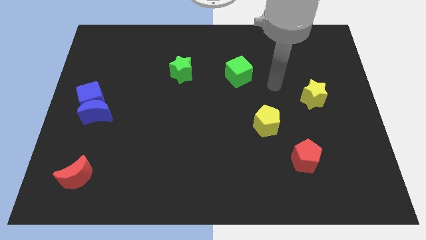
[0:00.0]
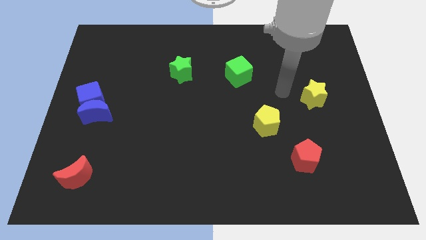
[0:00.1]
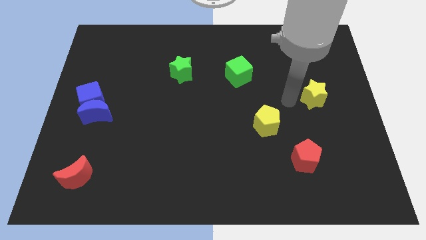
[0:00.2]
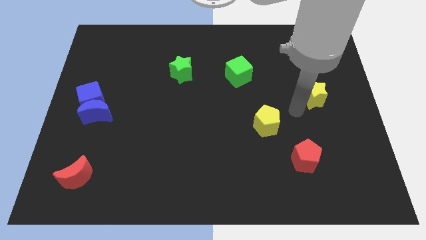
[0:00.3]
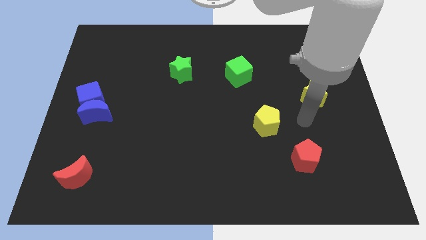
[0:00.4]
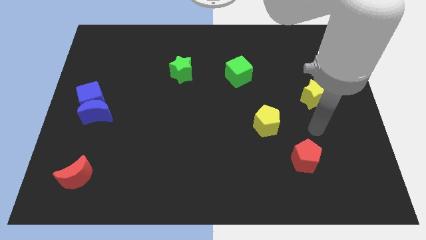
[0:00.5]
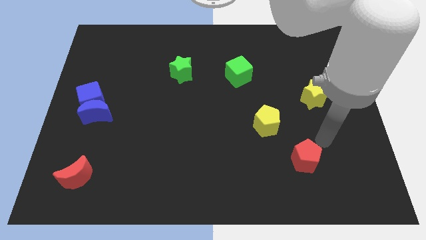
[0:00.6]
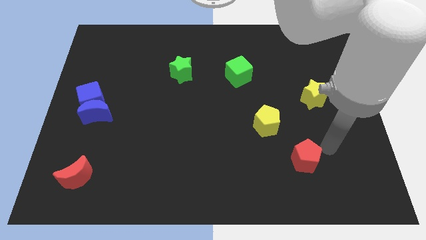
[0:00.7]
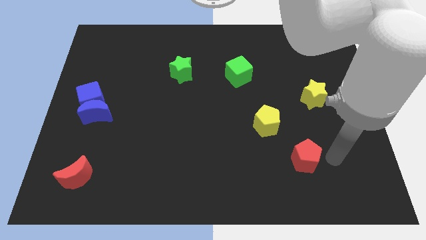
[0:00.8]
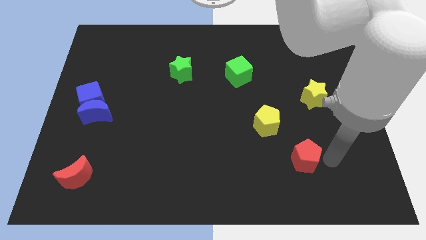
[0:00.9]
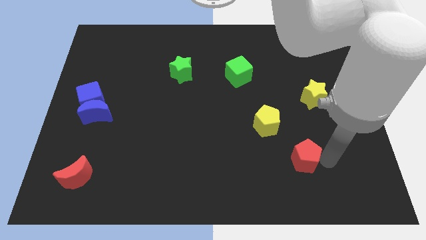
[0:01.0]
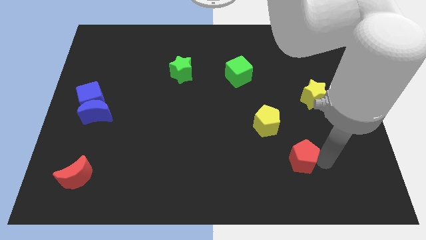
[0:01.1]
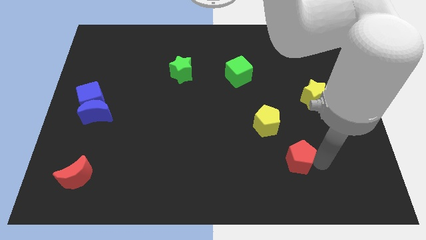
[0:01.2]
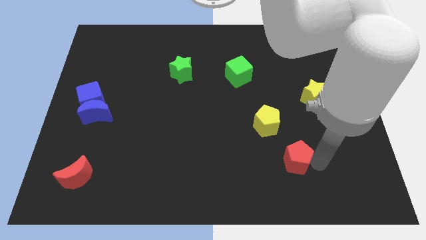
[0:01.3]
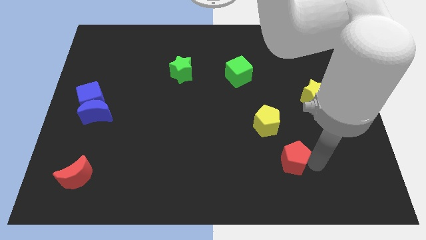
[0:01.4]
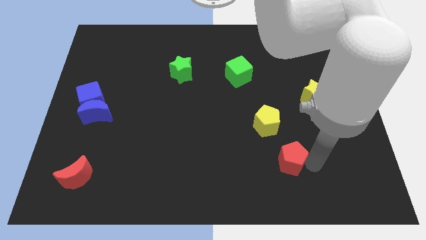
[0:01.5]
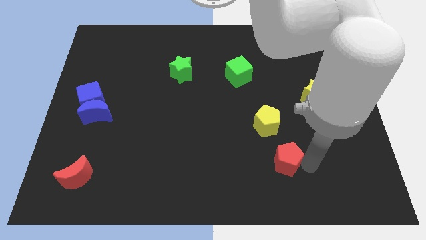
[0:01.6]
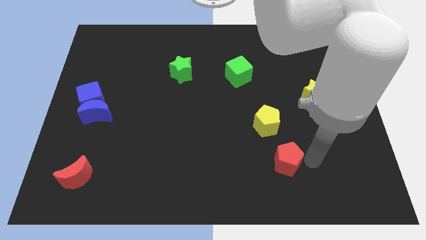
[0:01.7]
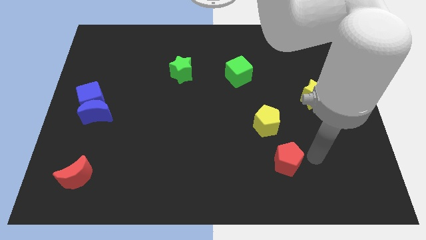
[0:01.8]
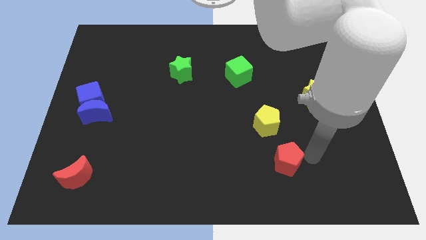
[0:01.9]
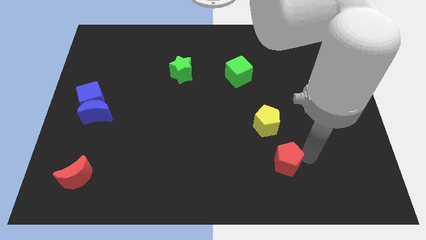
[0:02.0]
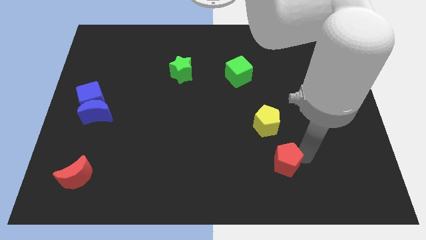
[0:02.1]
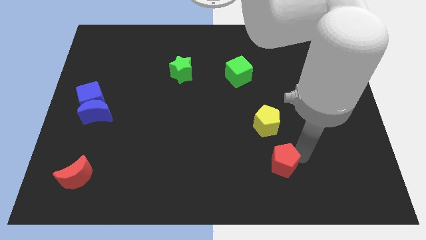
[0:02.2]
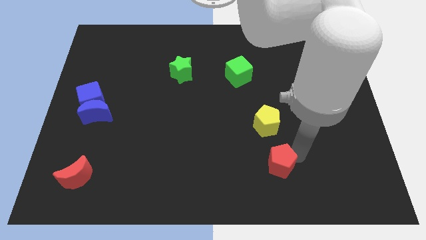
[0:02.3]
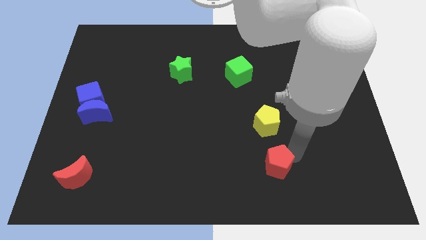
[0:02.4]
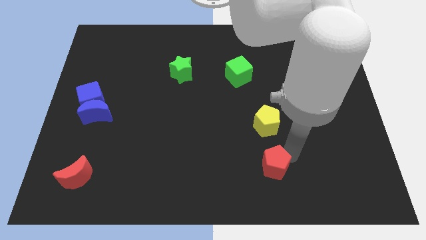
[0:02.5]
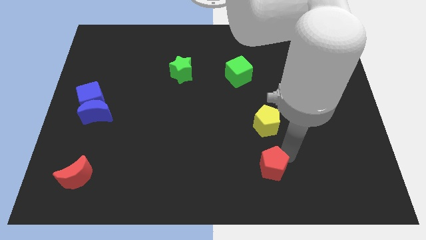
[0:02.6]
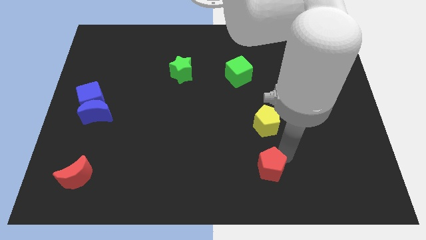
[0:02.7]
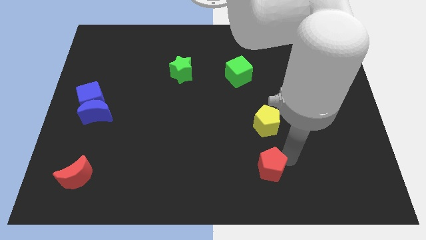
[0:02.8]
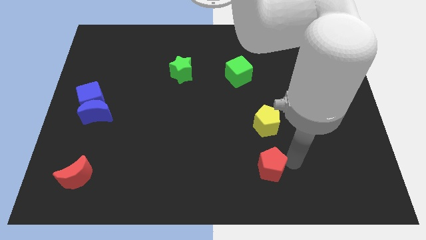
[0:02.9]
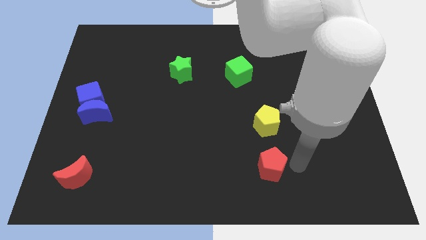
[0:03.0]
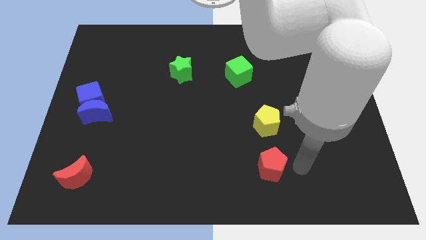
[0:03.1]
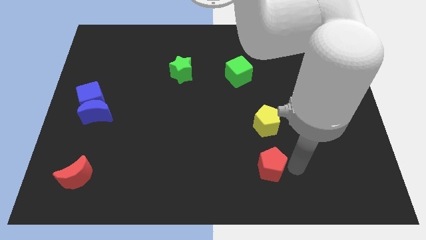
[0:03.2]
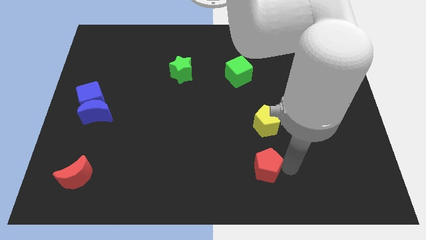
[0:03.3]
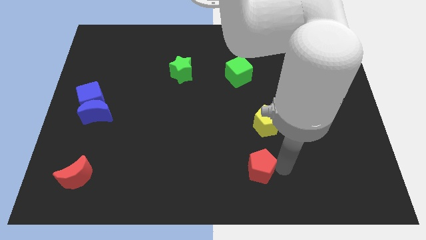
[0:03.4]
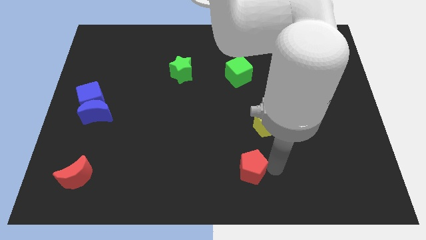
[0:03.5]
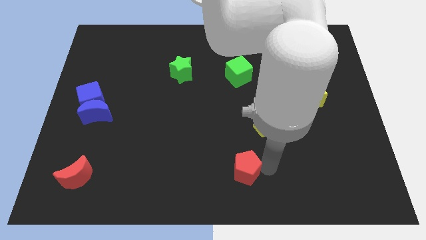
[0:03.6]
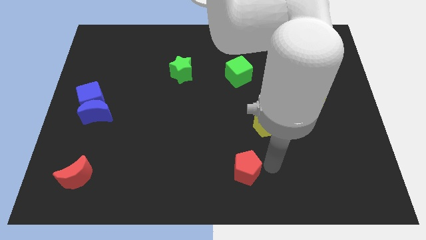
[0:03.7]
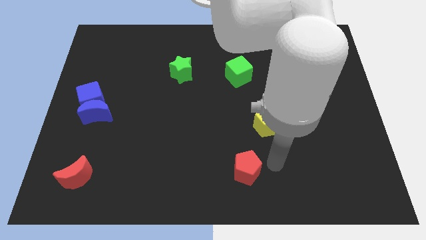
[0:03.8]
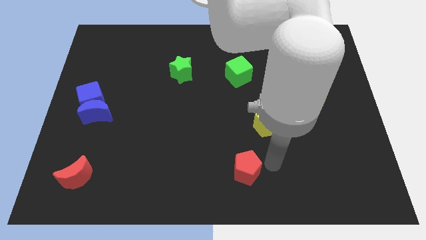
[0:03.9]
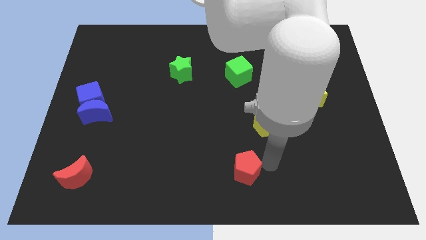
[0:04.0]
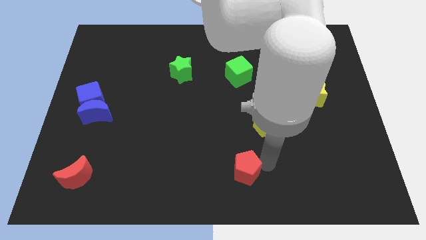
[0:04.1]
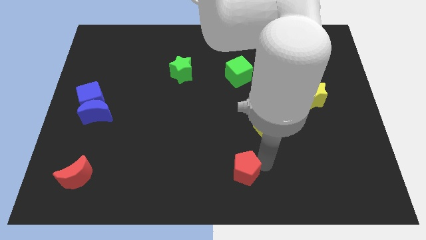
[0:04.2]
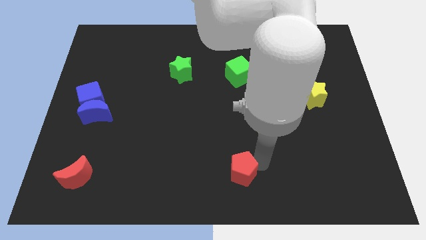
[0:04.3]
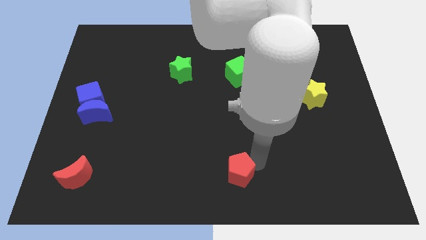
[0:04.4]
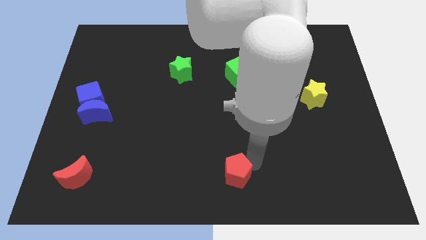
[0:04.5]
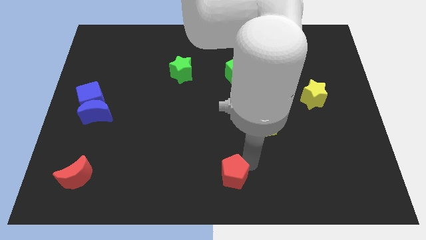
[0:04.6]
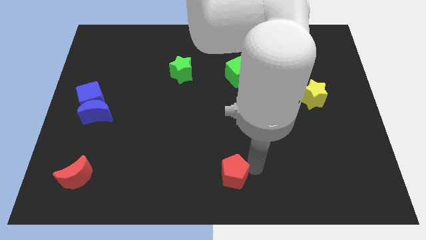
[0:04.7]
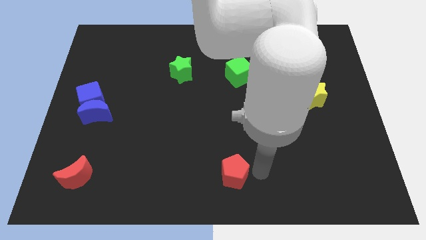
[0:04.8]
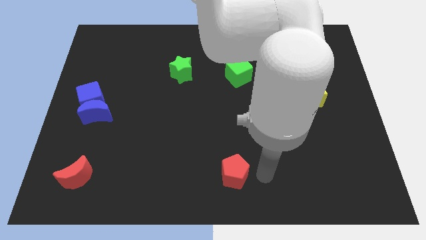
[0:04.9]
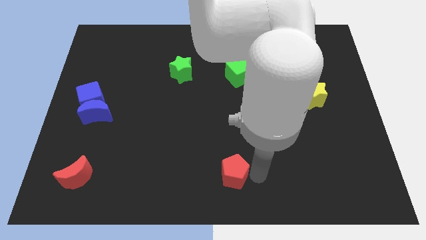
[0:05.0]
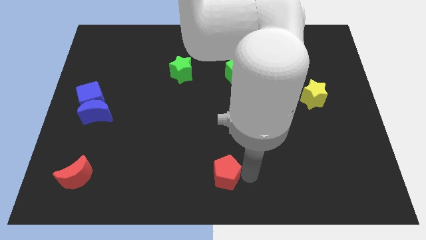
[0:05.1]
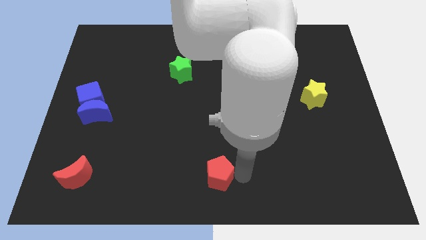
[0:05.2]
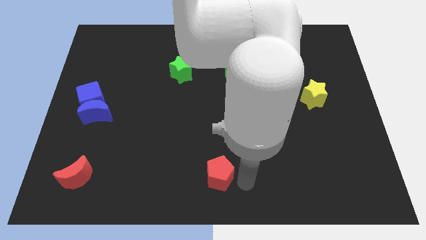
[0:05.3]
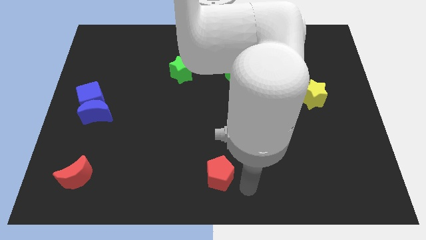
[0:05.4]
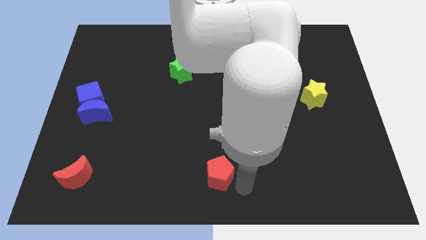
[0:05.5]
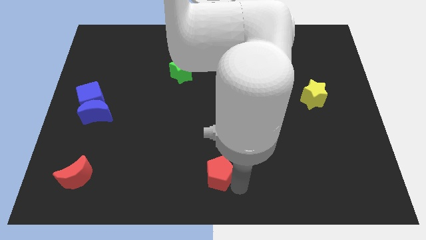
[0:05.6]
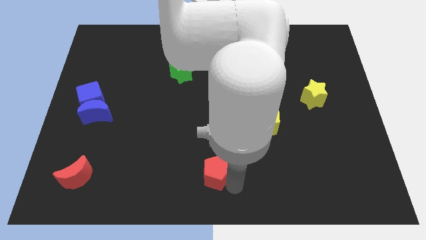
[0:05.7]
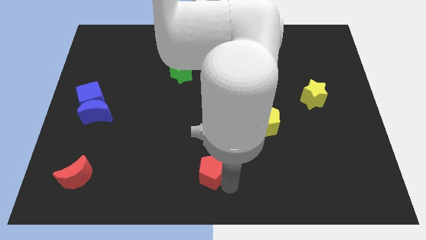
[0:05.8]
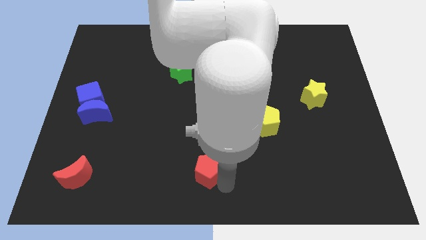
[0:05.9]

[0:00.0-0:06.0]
move the red pentagon to the left

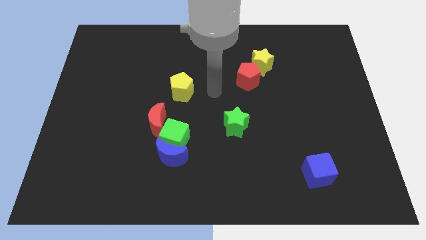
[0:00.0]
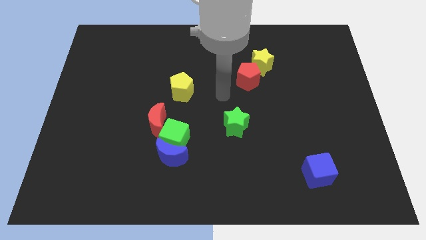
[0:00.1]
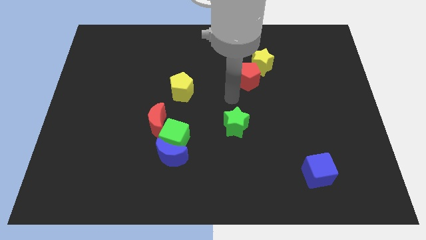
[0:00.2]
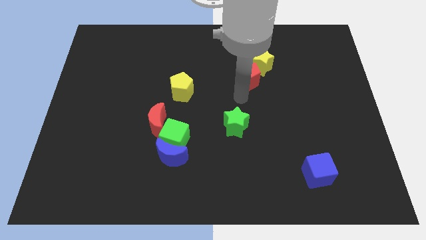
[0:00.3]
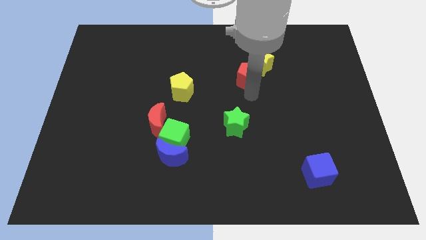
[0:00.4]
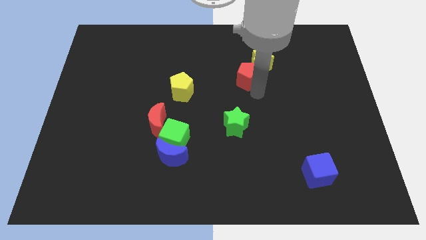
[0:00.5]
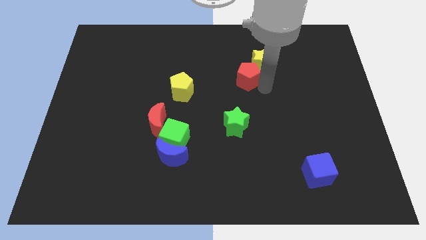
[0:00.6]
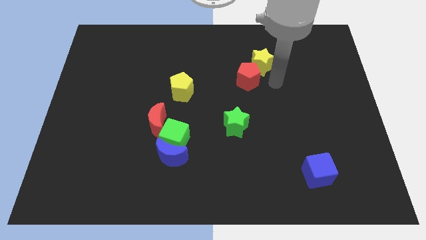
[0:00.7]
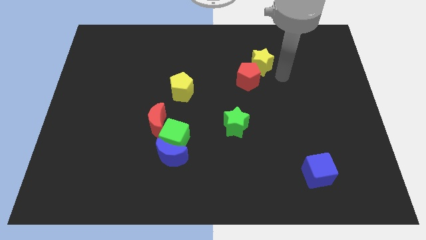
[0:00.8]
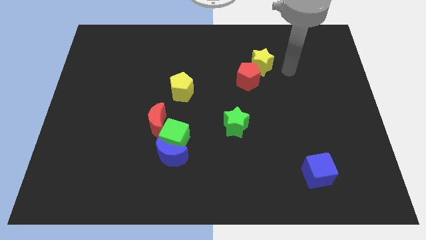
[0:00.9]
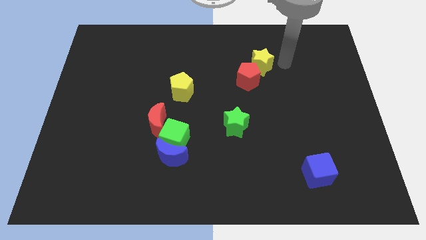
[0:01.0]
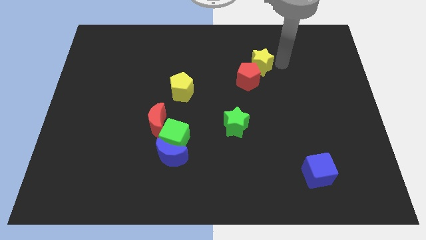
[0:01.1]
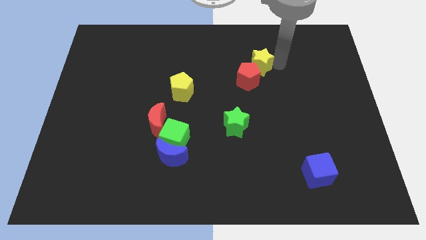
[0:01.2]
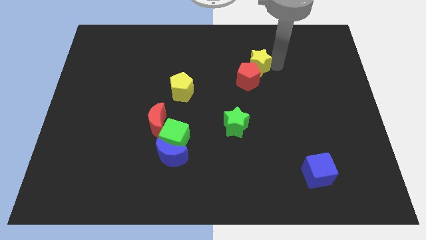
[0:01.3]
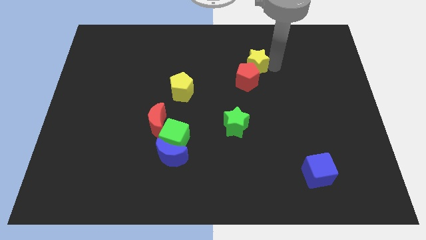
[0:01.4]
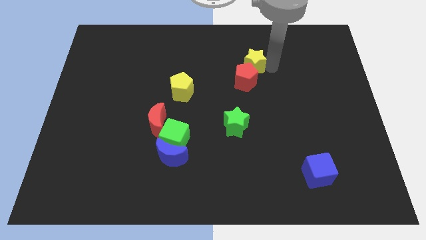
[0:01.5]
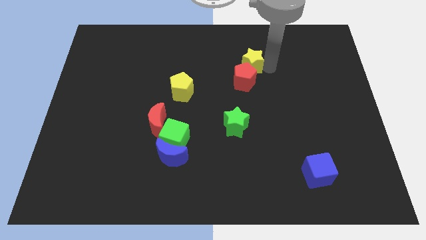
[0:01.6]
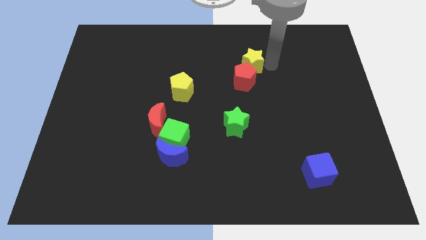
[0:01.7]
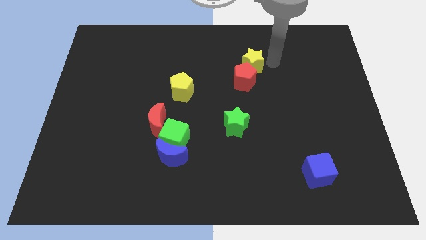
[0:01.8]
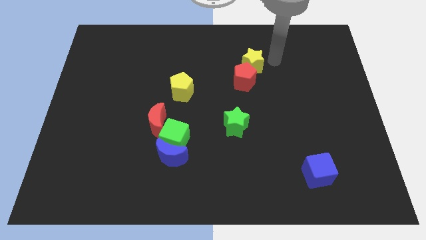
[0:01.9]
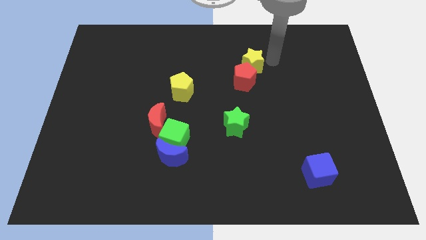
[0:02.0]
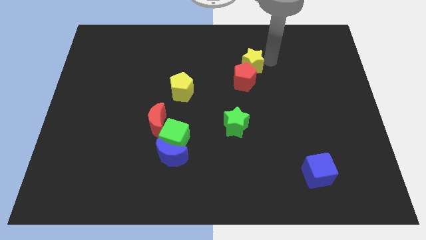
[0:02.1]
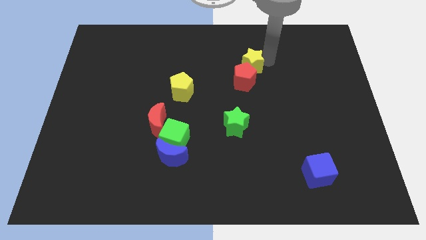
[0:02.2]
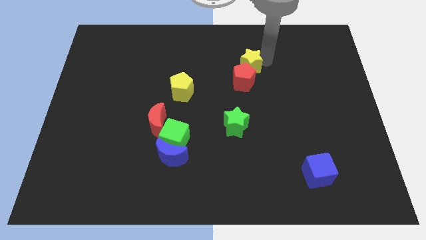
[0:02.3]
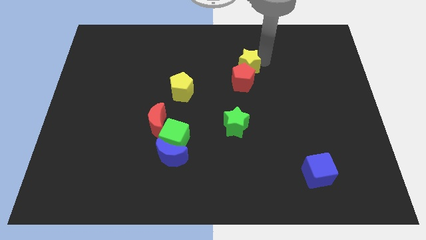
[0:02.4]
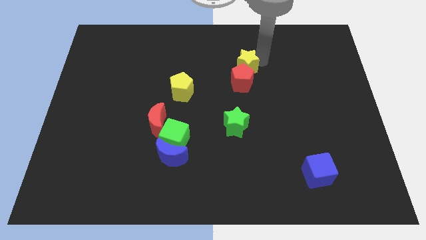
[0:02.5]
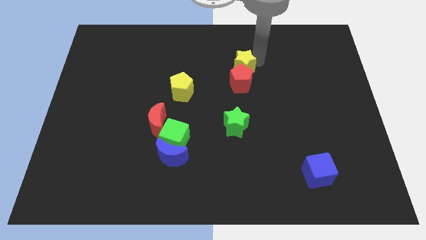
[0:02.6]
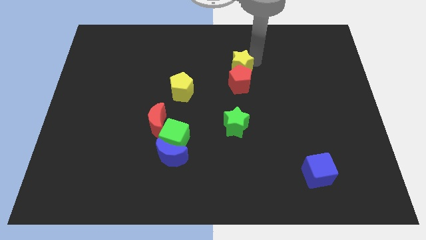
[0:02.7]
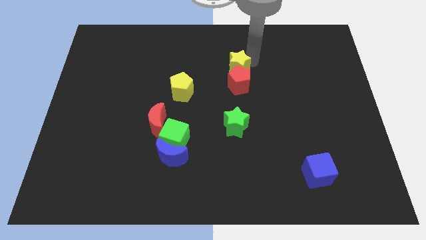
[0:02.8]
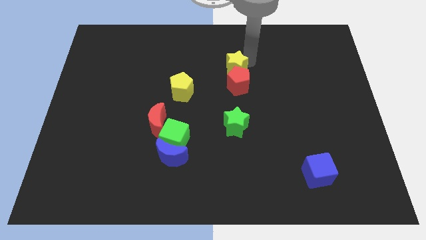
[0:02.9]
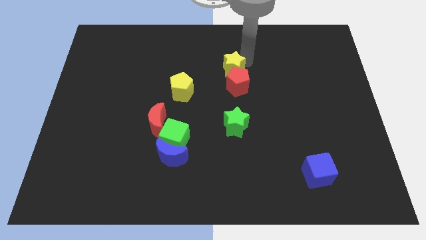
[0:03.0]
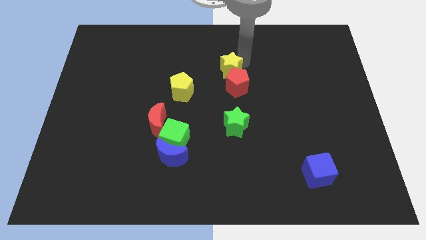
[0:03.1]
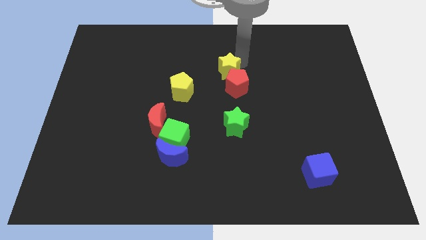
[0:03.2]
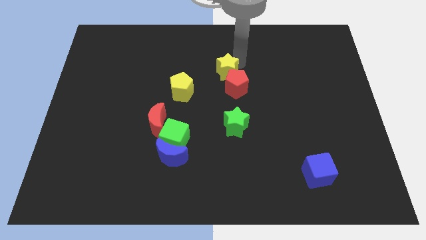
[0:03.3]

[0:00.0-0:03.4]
push the yellow star a bit diagonally downwards and to the left
